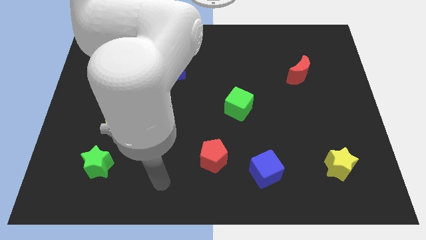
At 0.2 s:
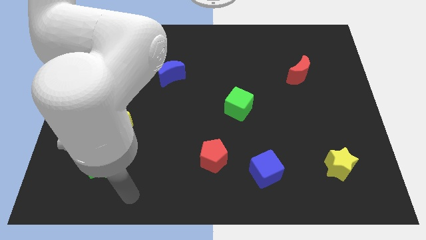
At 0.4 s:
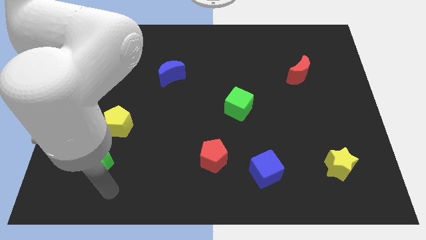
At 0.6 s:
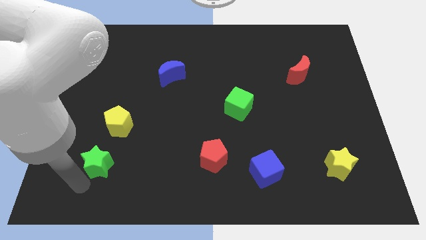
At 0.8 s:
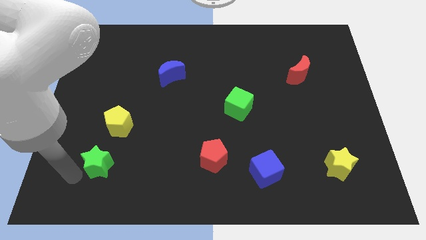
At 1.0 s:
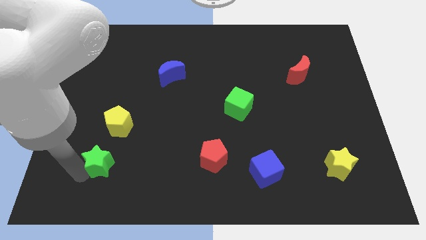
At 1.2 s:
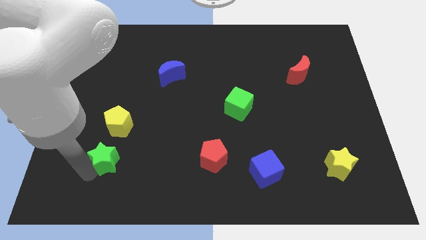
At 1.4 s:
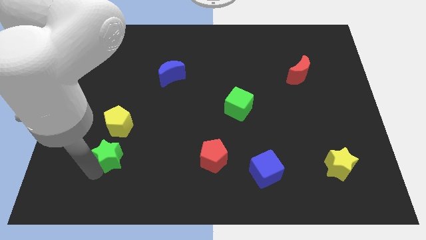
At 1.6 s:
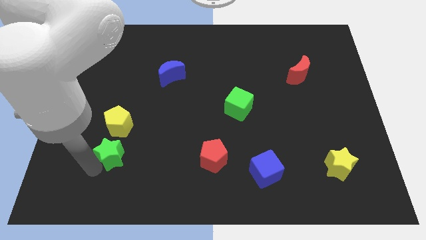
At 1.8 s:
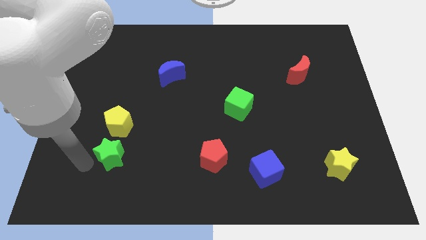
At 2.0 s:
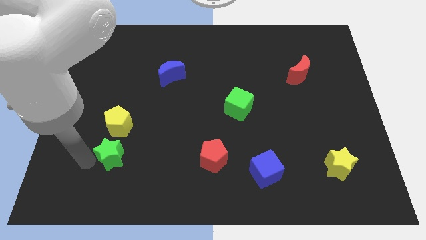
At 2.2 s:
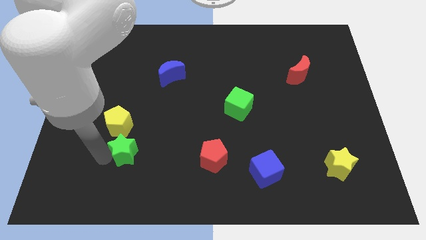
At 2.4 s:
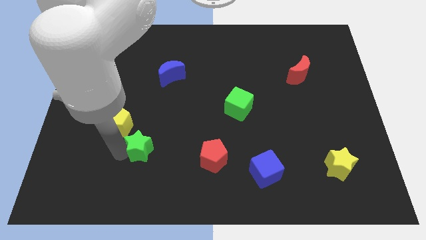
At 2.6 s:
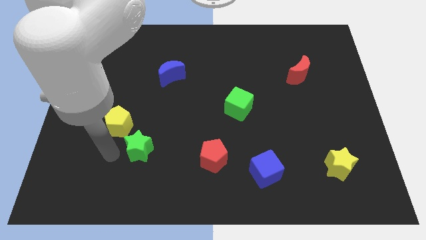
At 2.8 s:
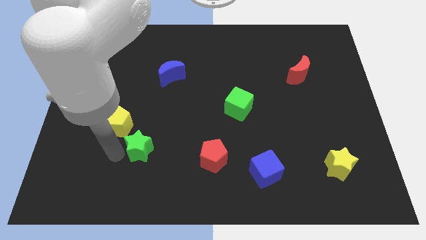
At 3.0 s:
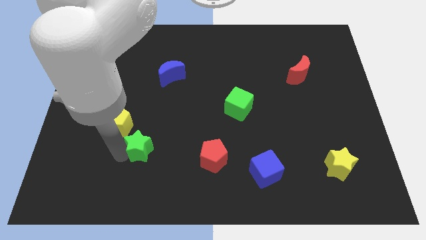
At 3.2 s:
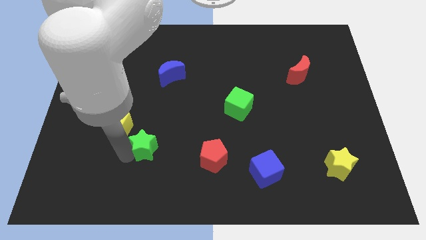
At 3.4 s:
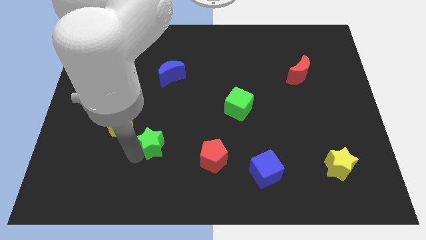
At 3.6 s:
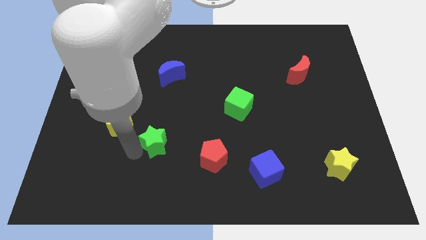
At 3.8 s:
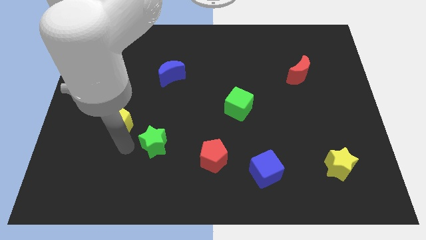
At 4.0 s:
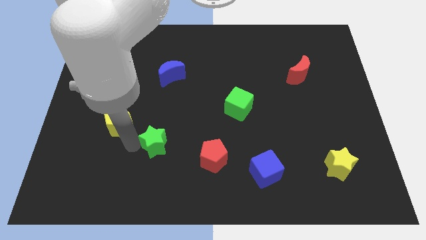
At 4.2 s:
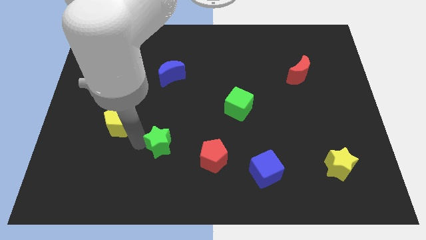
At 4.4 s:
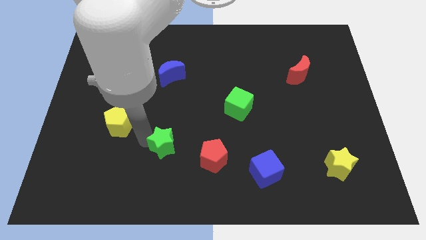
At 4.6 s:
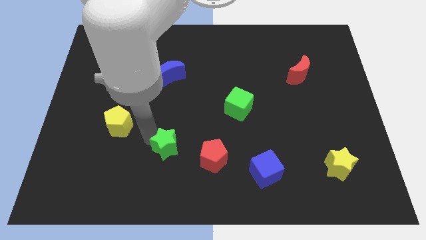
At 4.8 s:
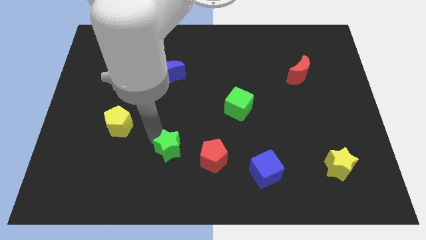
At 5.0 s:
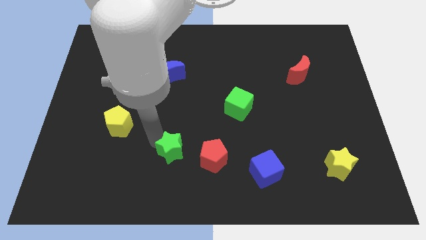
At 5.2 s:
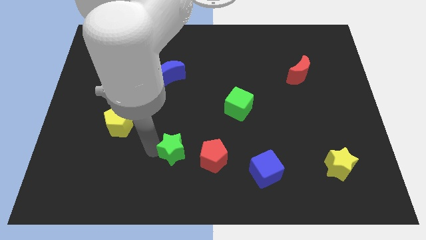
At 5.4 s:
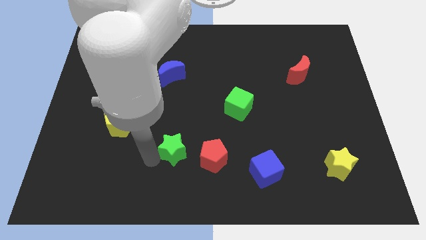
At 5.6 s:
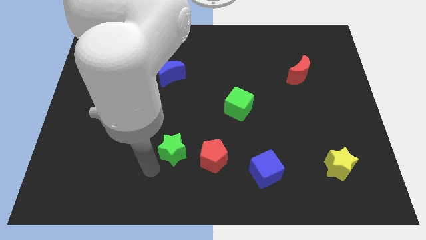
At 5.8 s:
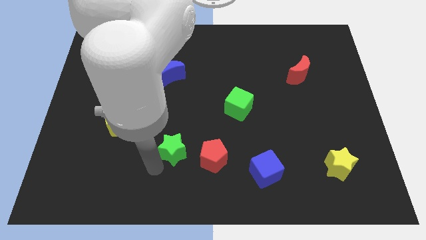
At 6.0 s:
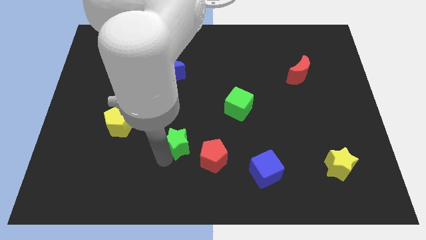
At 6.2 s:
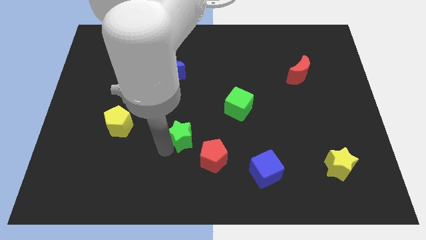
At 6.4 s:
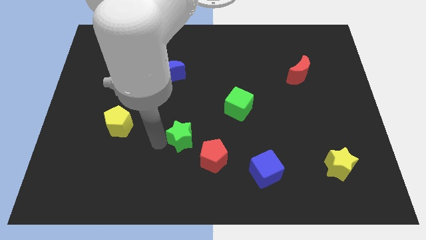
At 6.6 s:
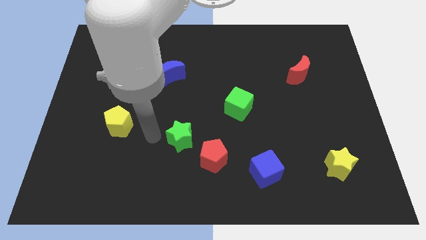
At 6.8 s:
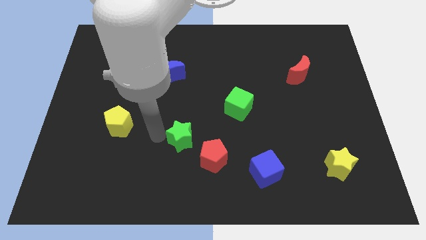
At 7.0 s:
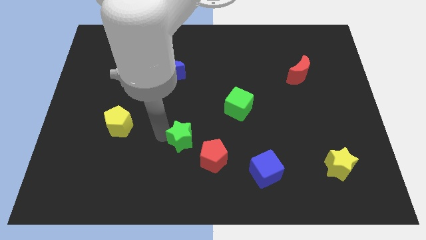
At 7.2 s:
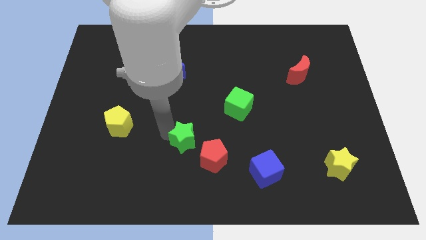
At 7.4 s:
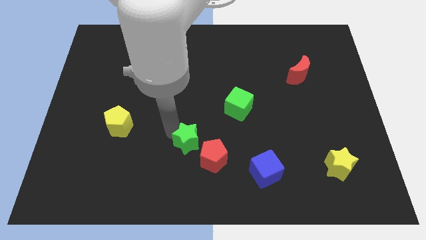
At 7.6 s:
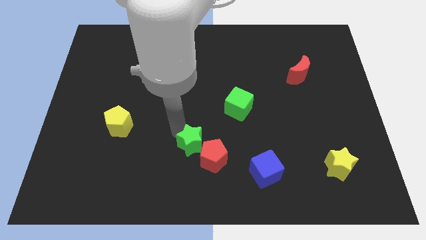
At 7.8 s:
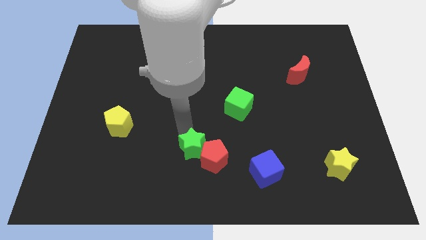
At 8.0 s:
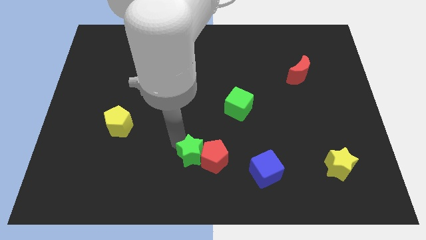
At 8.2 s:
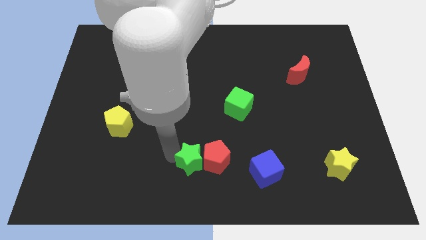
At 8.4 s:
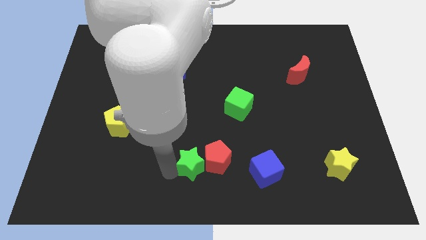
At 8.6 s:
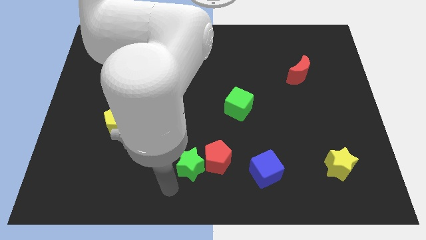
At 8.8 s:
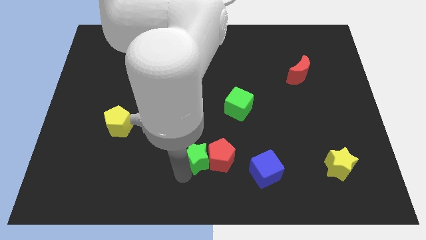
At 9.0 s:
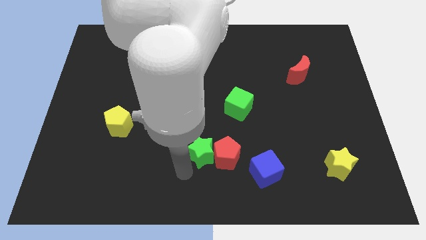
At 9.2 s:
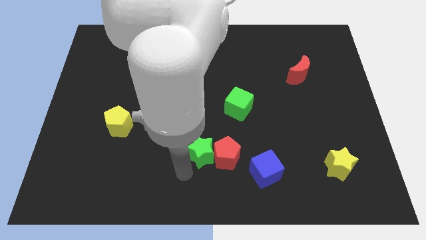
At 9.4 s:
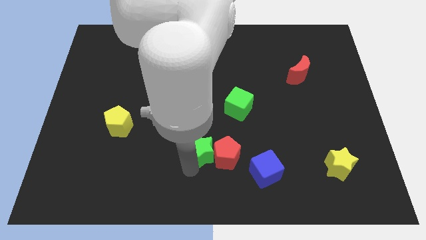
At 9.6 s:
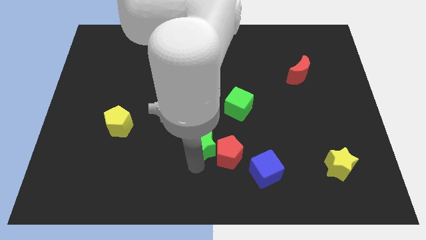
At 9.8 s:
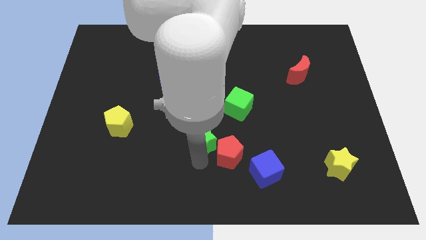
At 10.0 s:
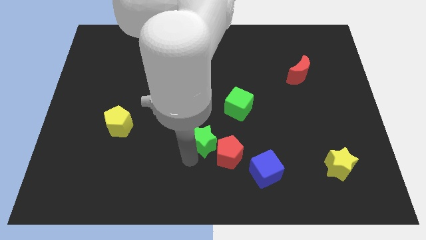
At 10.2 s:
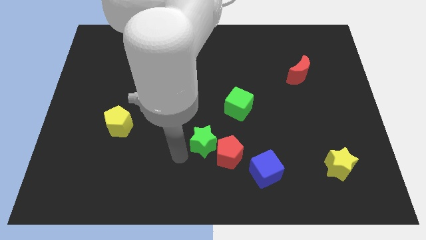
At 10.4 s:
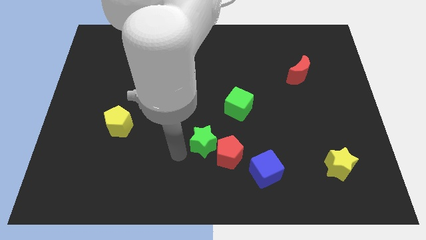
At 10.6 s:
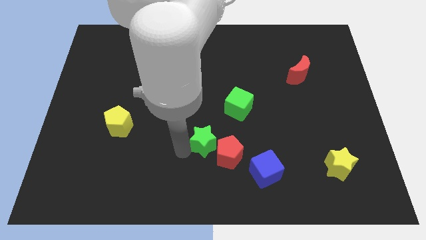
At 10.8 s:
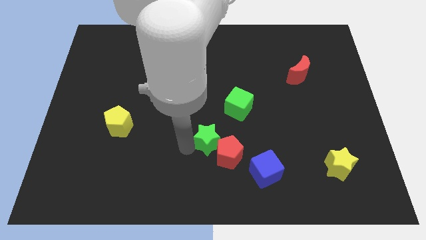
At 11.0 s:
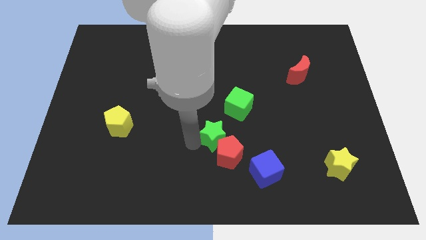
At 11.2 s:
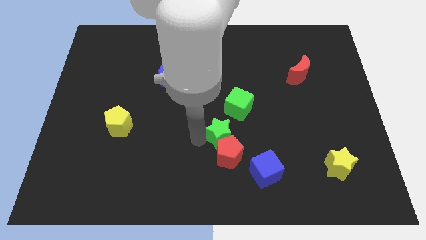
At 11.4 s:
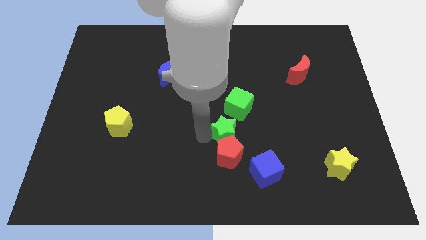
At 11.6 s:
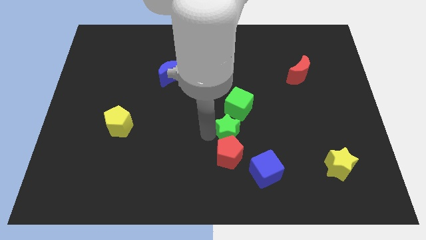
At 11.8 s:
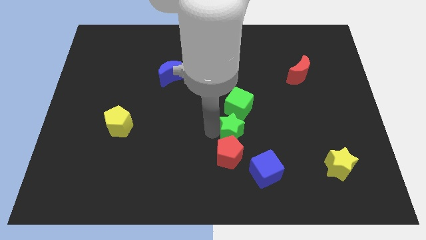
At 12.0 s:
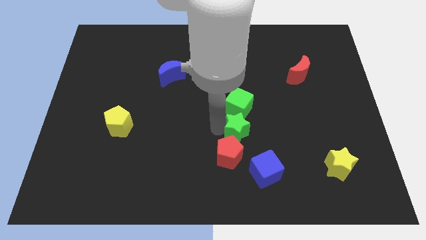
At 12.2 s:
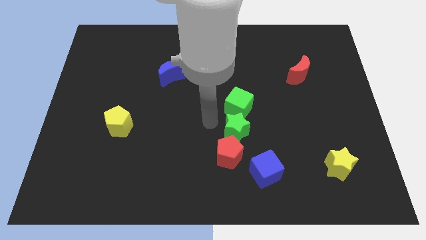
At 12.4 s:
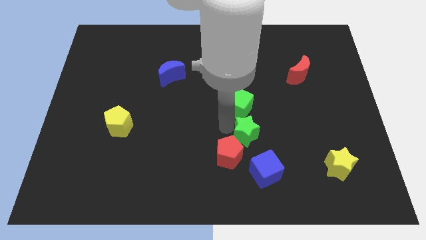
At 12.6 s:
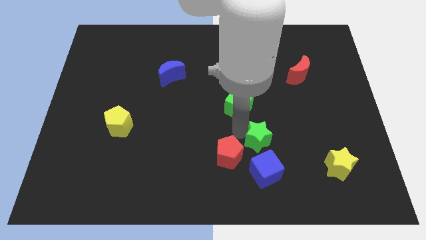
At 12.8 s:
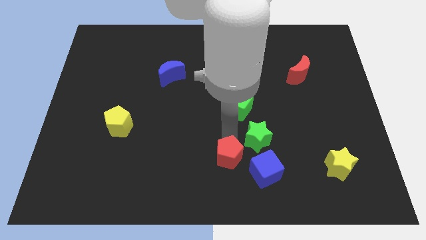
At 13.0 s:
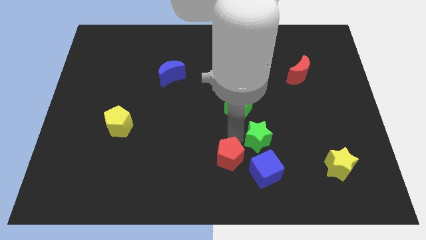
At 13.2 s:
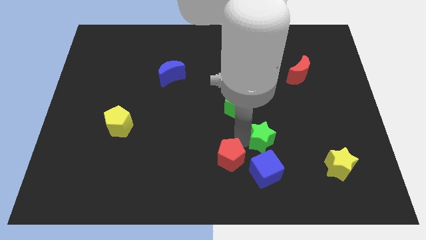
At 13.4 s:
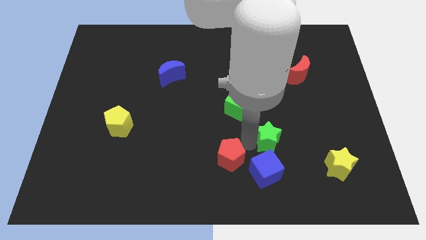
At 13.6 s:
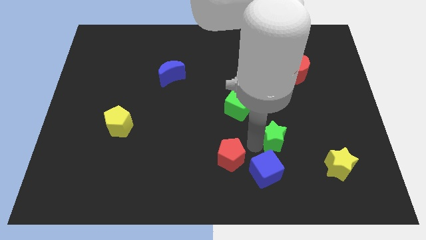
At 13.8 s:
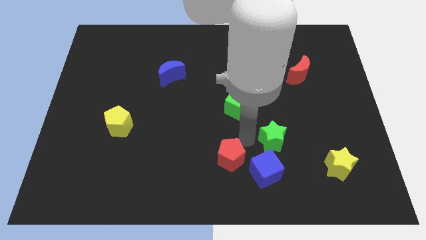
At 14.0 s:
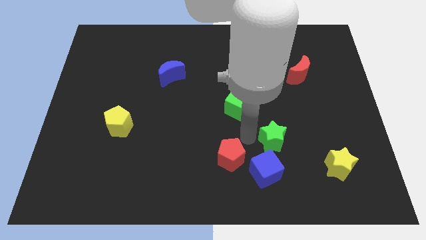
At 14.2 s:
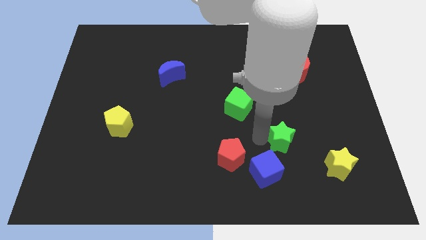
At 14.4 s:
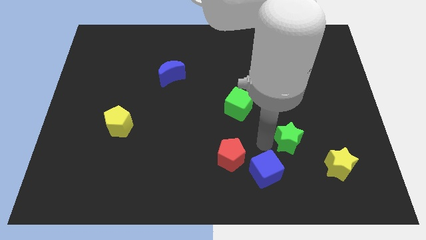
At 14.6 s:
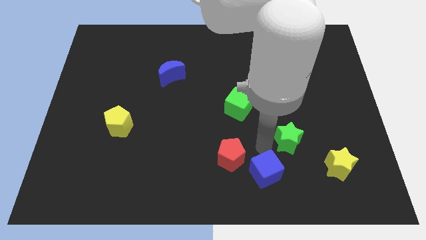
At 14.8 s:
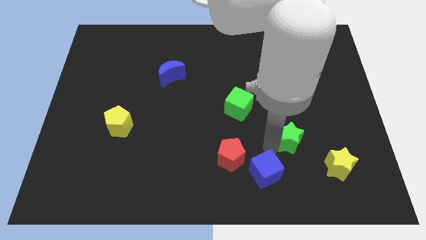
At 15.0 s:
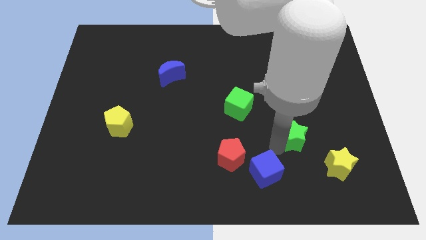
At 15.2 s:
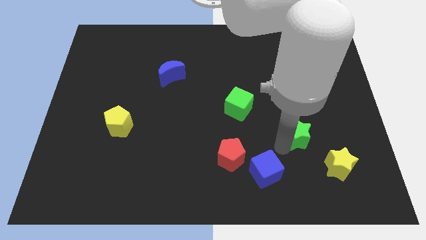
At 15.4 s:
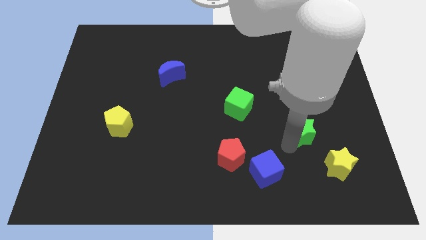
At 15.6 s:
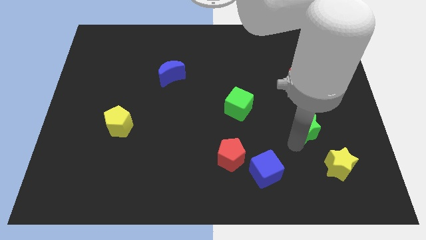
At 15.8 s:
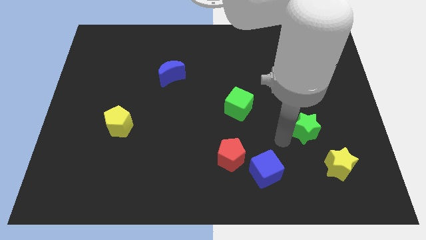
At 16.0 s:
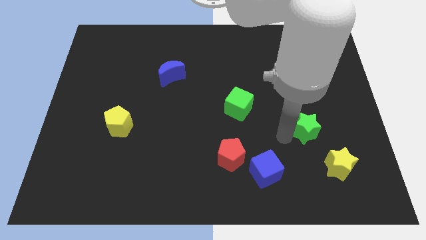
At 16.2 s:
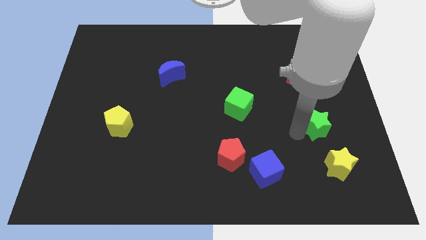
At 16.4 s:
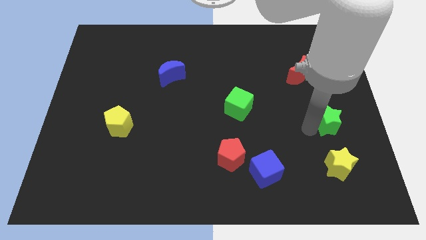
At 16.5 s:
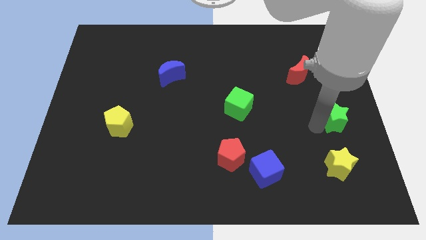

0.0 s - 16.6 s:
slide the green star to the center right
